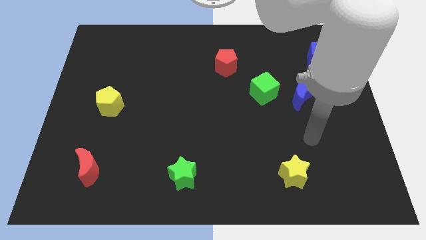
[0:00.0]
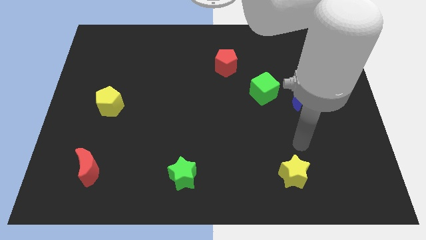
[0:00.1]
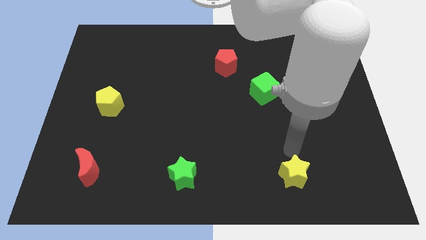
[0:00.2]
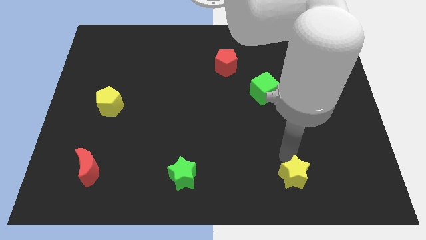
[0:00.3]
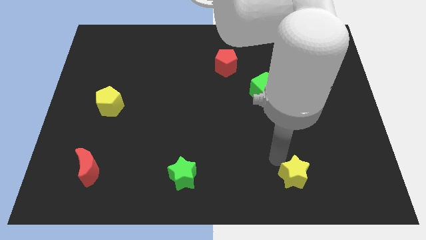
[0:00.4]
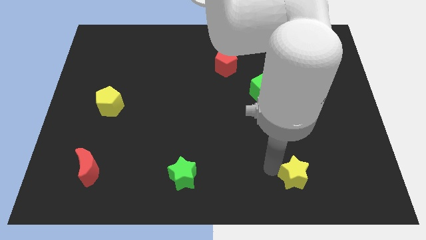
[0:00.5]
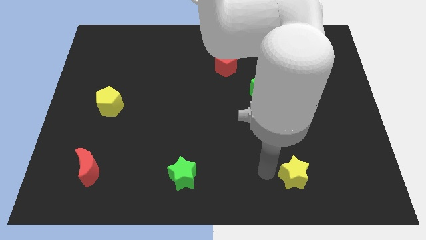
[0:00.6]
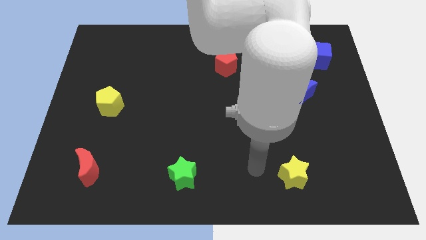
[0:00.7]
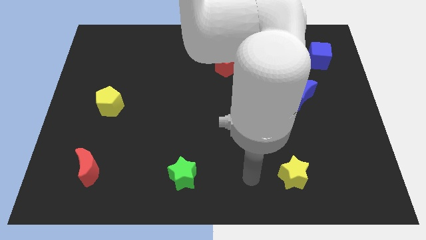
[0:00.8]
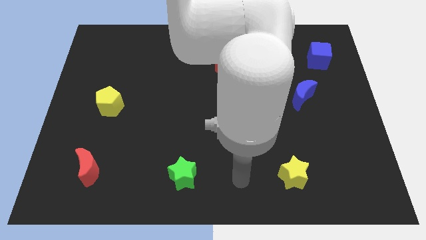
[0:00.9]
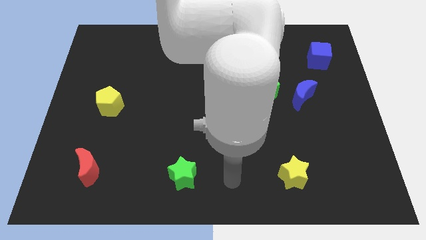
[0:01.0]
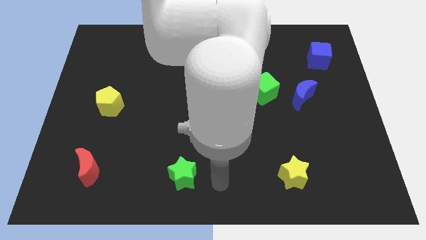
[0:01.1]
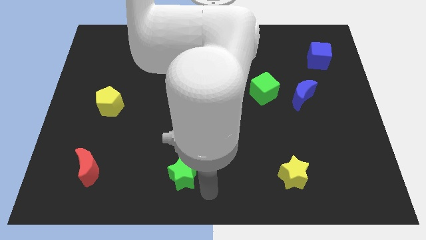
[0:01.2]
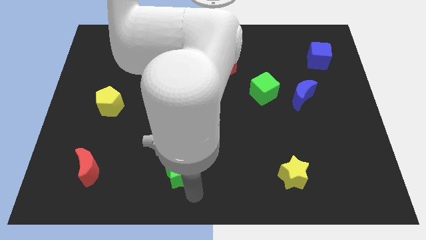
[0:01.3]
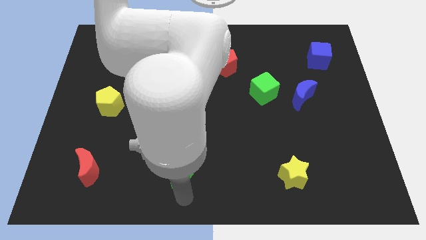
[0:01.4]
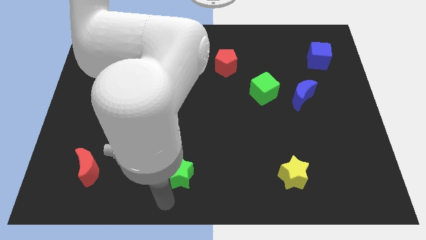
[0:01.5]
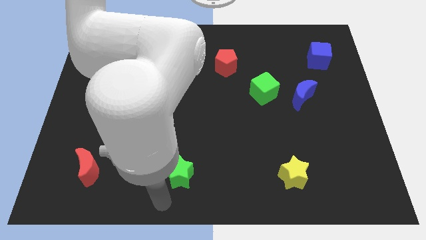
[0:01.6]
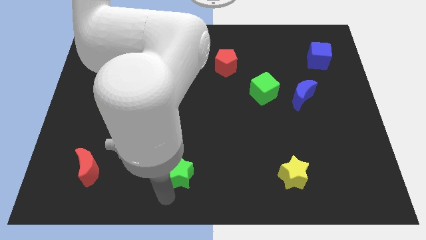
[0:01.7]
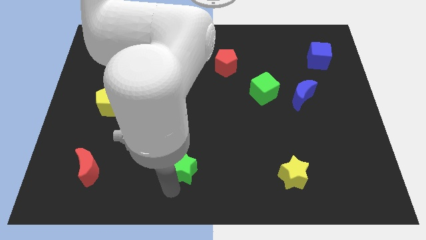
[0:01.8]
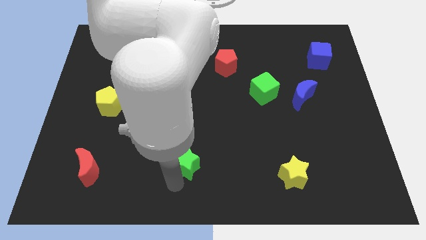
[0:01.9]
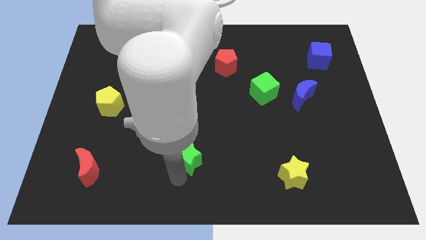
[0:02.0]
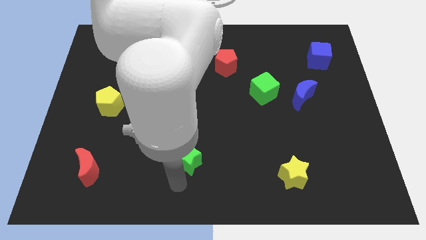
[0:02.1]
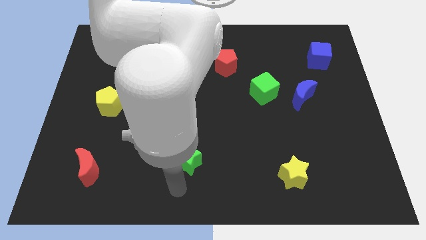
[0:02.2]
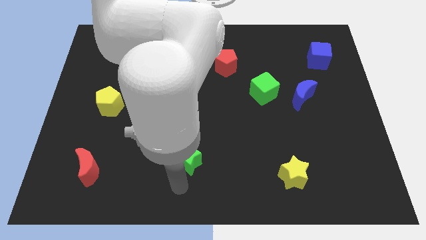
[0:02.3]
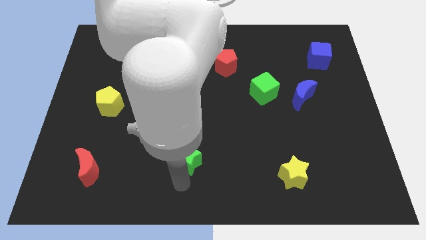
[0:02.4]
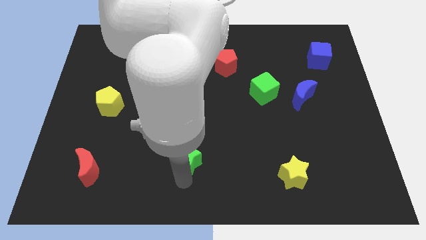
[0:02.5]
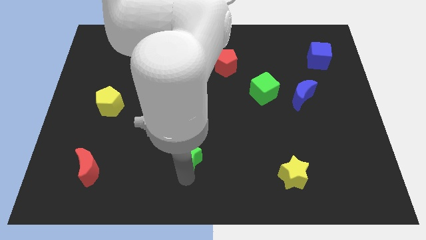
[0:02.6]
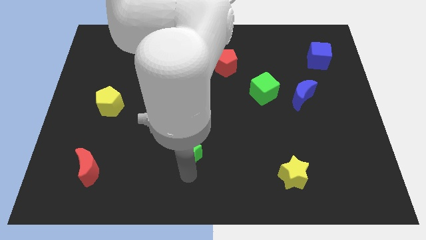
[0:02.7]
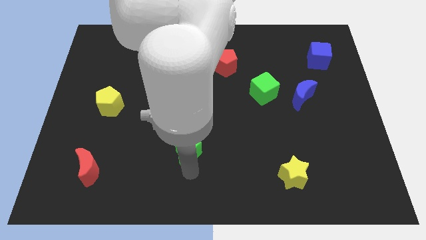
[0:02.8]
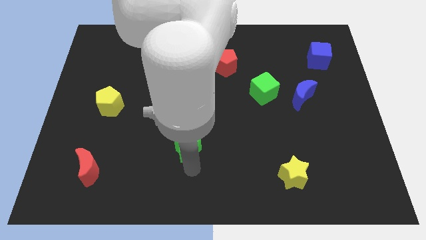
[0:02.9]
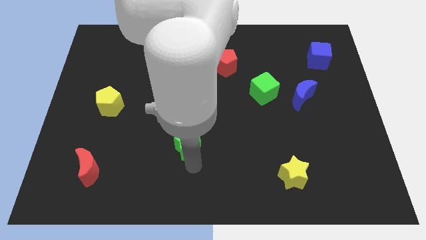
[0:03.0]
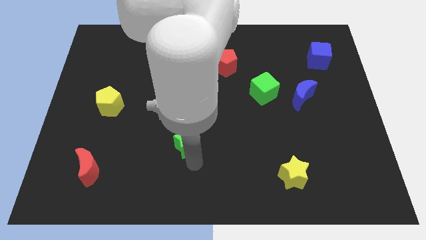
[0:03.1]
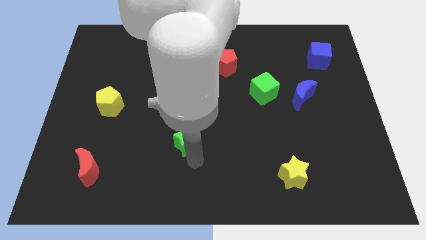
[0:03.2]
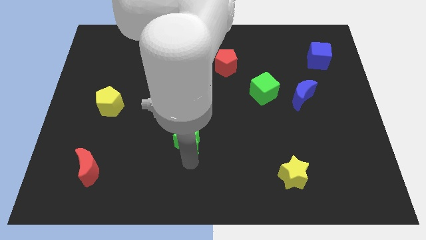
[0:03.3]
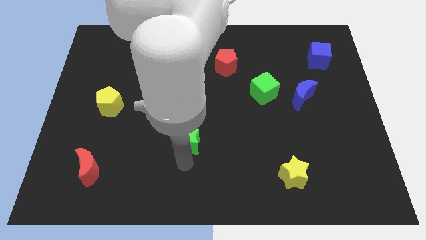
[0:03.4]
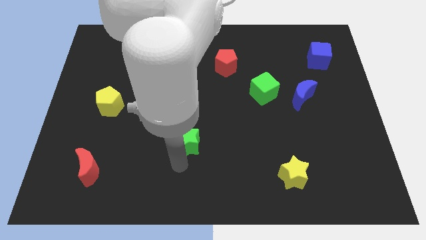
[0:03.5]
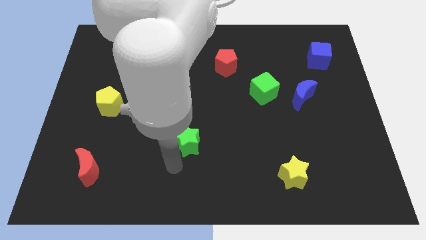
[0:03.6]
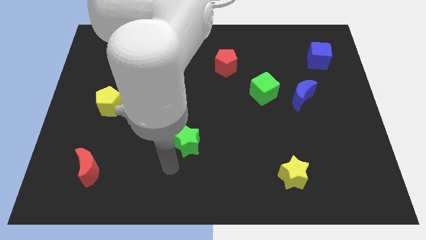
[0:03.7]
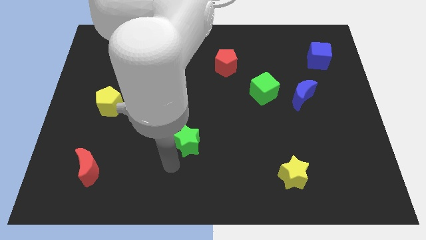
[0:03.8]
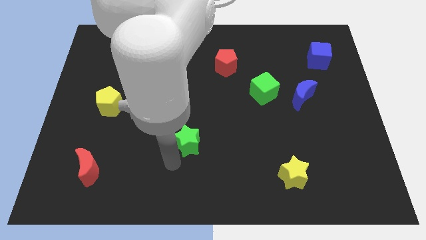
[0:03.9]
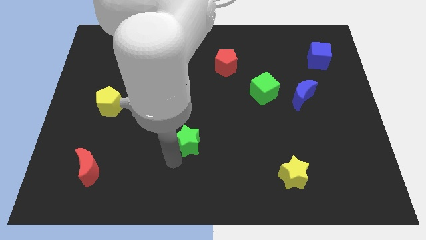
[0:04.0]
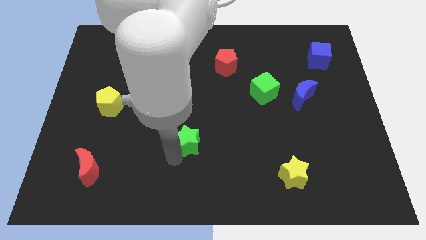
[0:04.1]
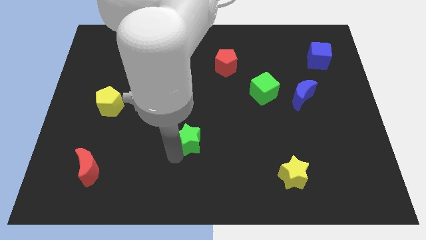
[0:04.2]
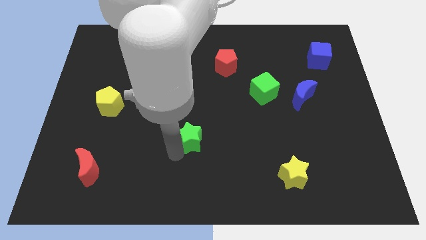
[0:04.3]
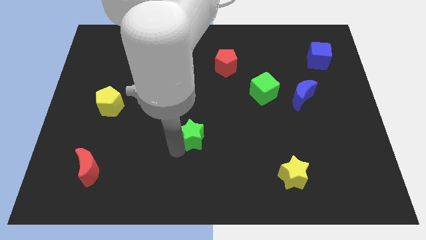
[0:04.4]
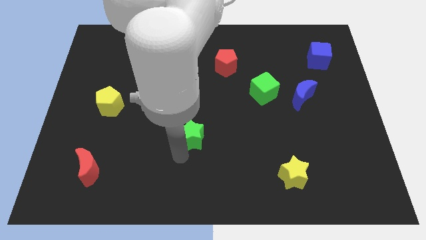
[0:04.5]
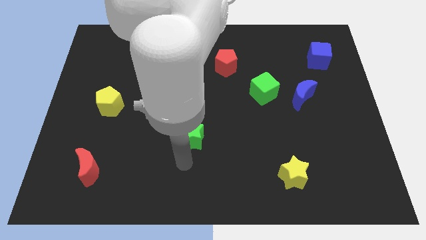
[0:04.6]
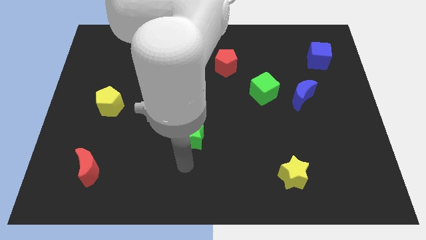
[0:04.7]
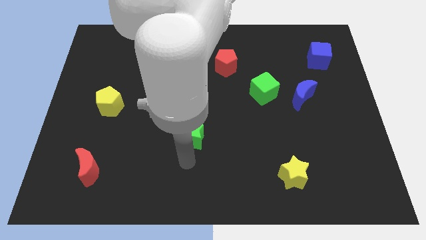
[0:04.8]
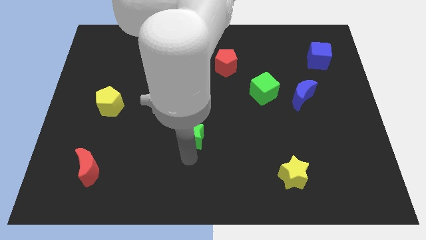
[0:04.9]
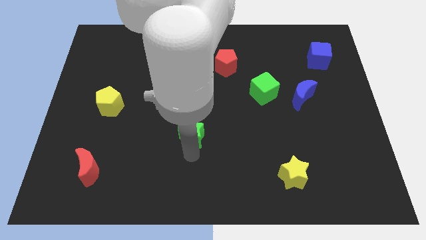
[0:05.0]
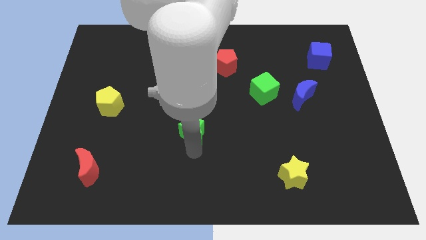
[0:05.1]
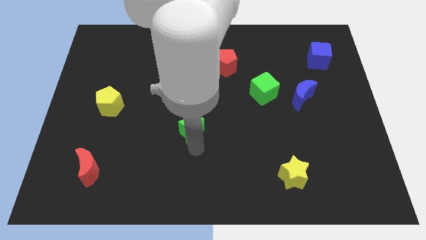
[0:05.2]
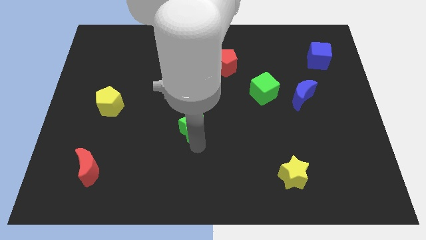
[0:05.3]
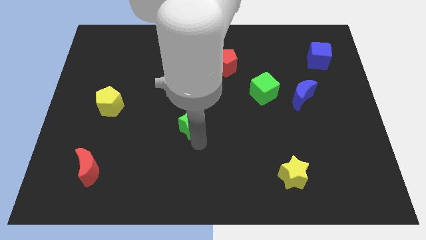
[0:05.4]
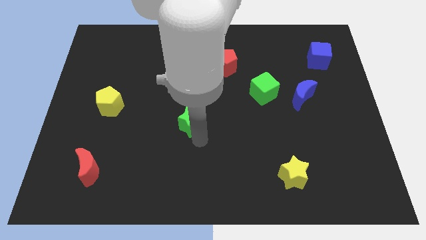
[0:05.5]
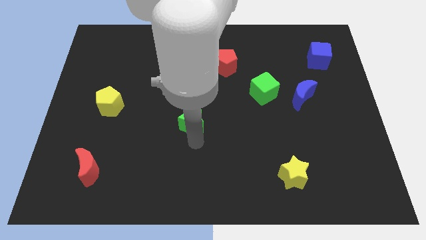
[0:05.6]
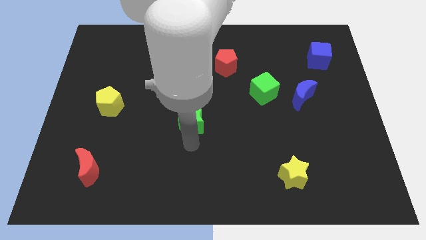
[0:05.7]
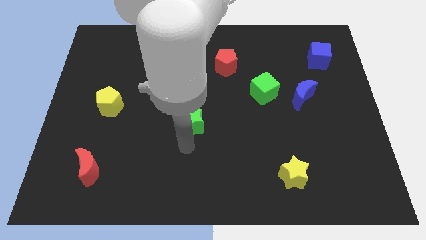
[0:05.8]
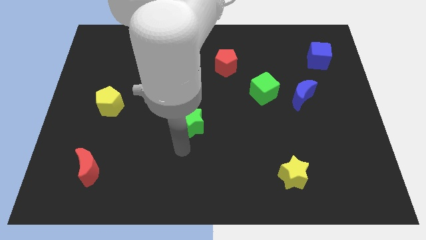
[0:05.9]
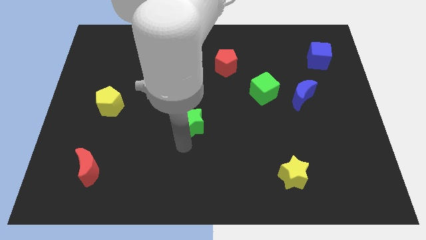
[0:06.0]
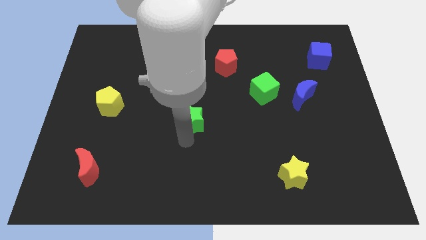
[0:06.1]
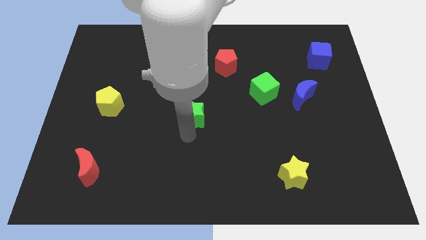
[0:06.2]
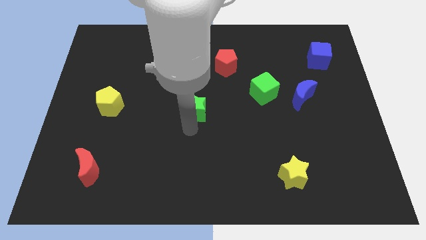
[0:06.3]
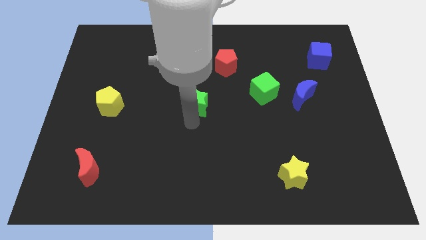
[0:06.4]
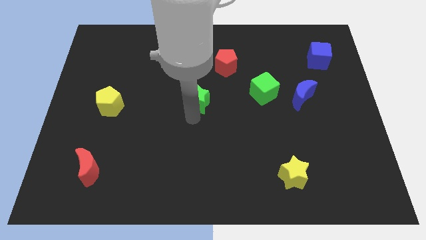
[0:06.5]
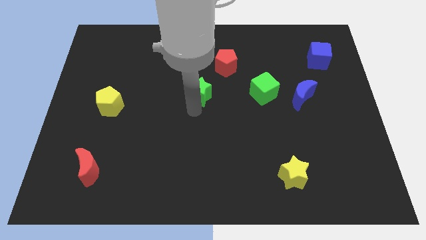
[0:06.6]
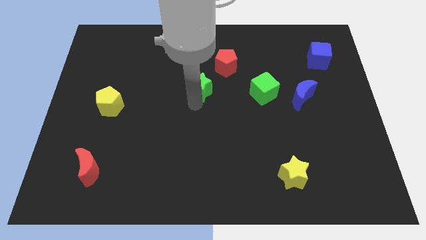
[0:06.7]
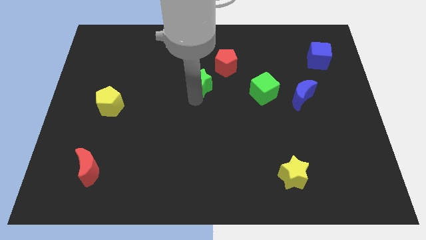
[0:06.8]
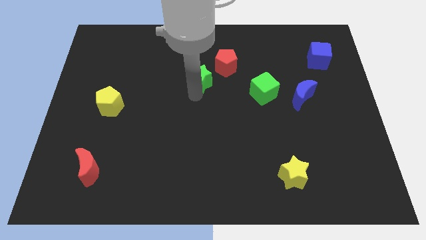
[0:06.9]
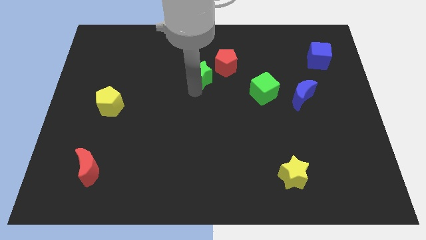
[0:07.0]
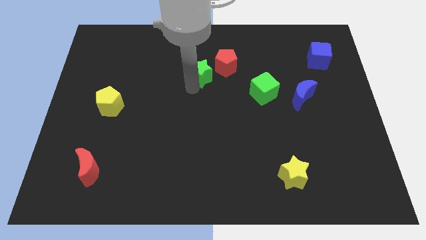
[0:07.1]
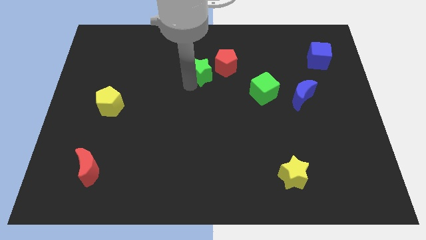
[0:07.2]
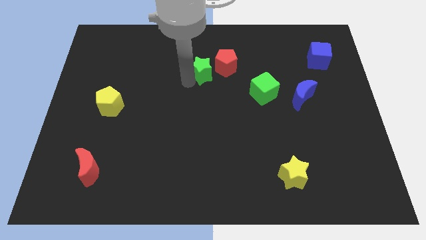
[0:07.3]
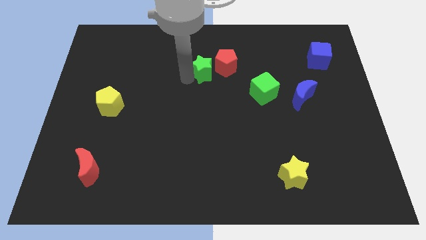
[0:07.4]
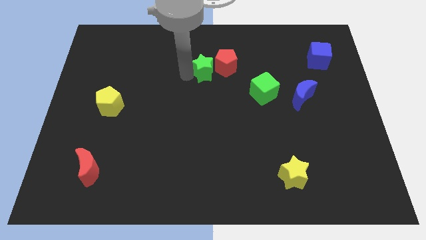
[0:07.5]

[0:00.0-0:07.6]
move the green star close to the red pentagon
